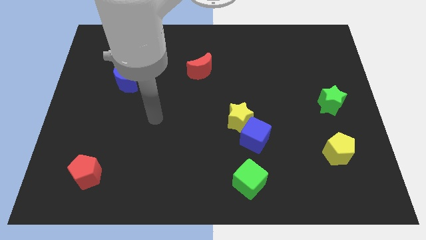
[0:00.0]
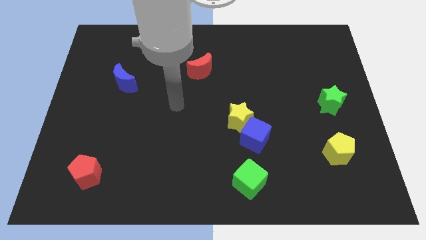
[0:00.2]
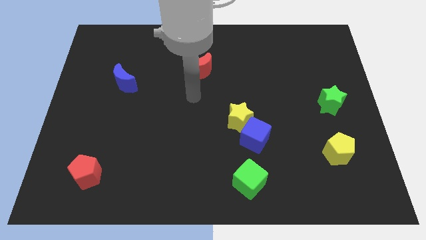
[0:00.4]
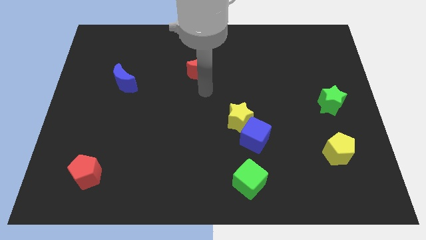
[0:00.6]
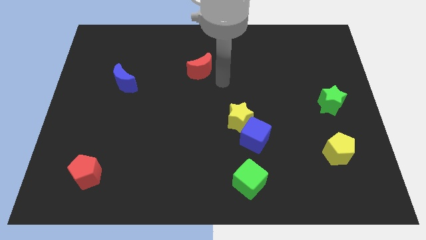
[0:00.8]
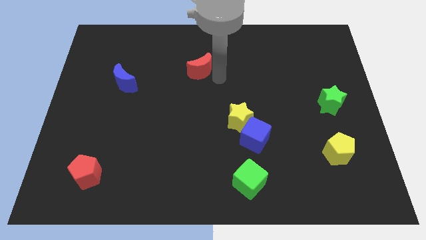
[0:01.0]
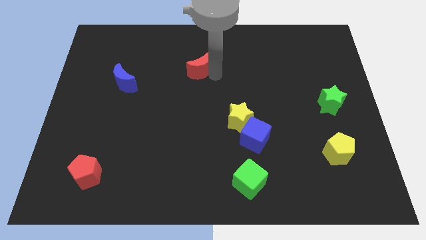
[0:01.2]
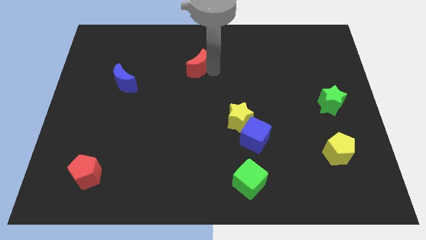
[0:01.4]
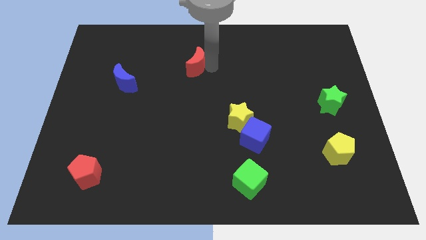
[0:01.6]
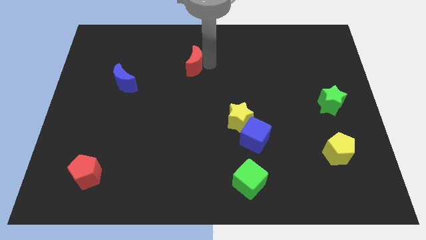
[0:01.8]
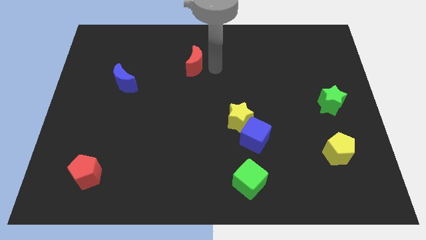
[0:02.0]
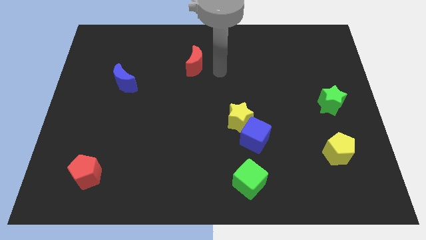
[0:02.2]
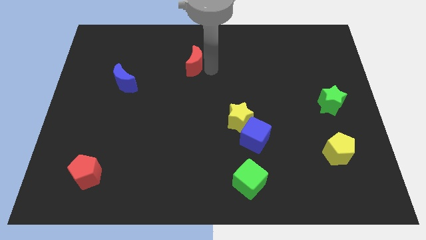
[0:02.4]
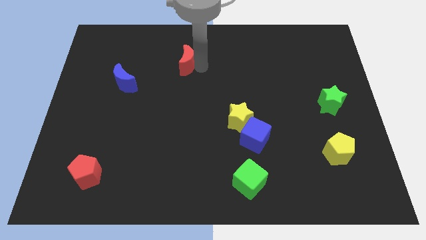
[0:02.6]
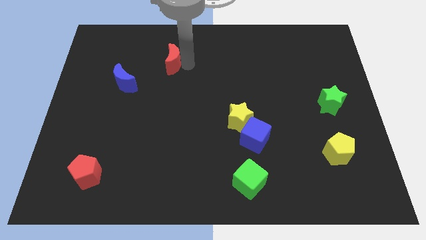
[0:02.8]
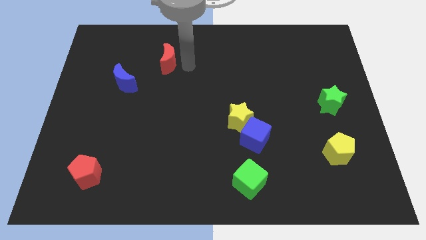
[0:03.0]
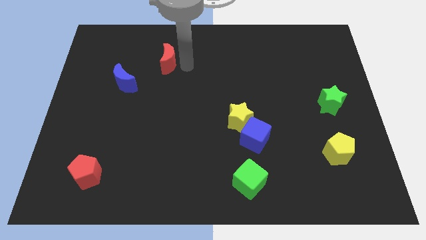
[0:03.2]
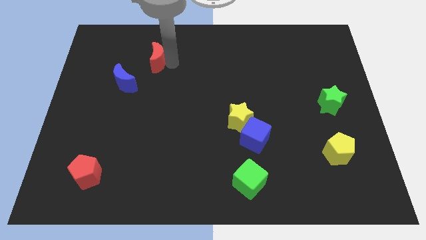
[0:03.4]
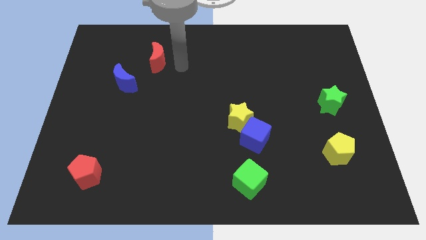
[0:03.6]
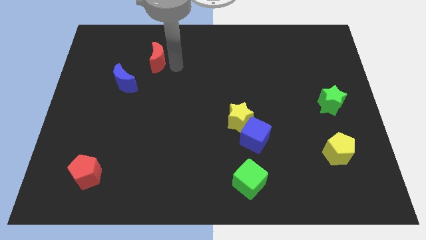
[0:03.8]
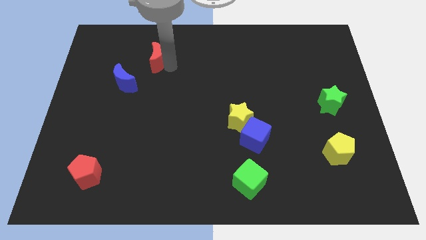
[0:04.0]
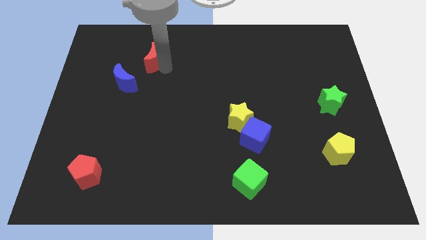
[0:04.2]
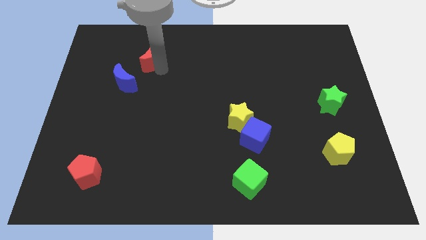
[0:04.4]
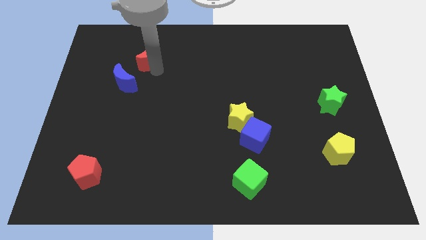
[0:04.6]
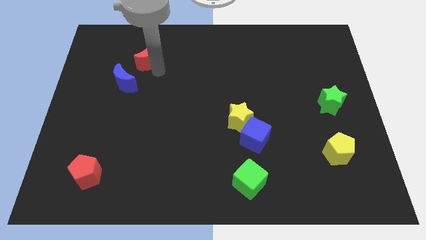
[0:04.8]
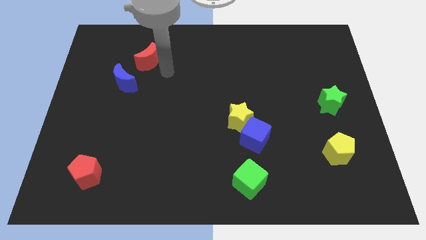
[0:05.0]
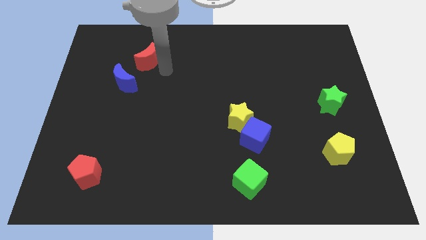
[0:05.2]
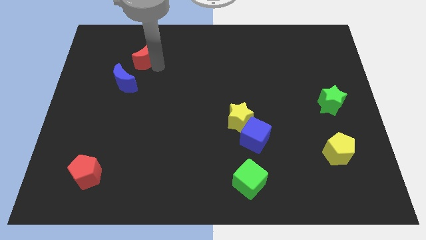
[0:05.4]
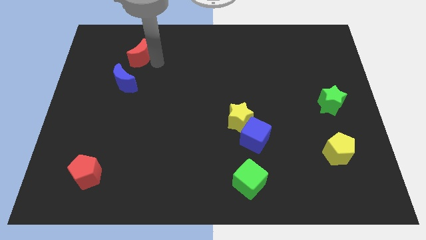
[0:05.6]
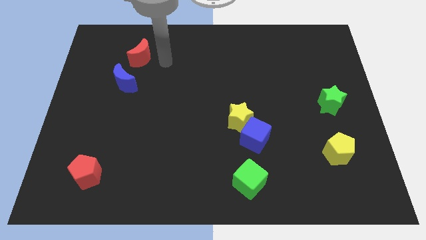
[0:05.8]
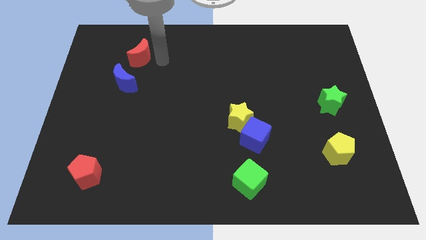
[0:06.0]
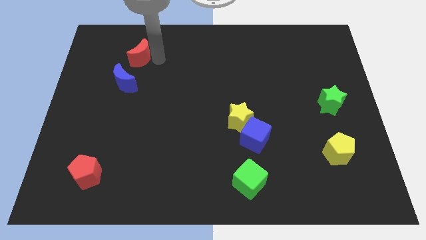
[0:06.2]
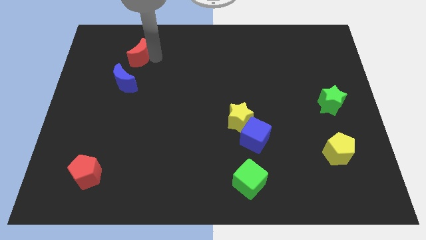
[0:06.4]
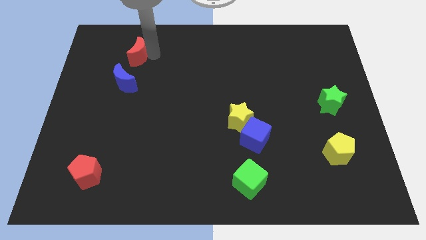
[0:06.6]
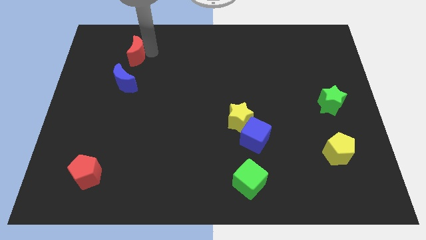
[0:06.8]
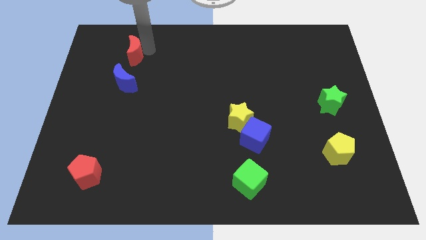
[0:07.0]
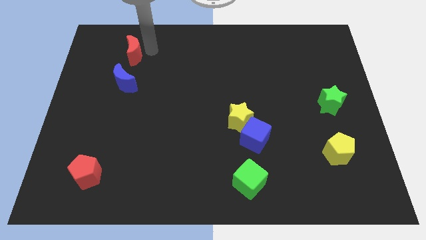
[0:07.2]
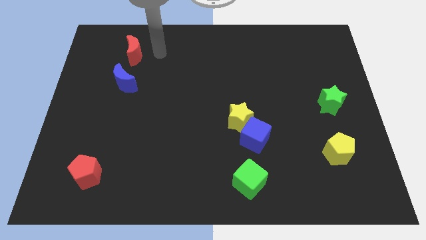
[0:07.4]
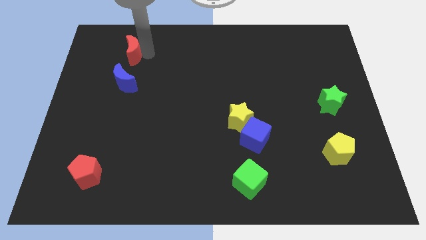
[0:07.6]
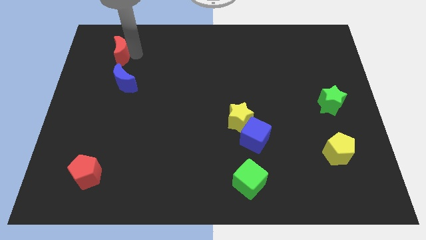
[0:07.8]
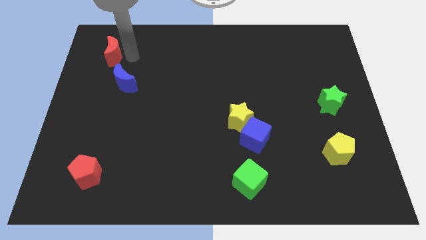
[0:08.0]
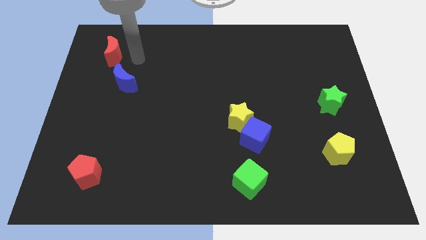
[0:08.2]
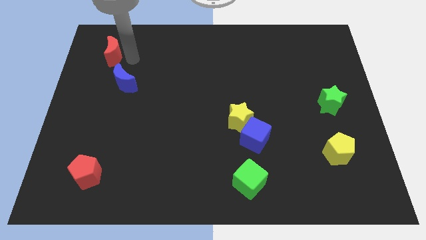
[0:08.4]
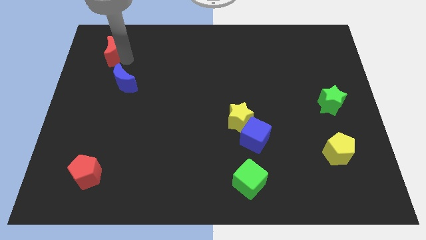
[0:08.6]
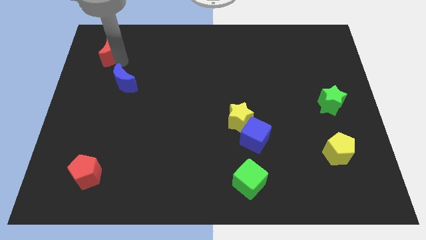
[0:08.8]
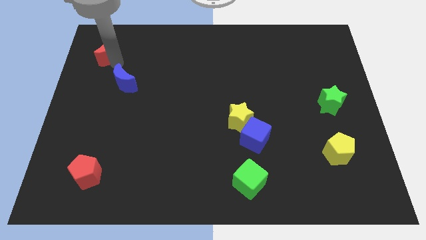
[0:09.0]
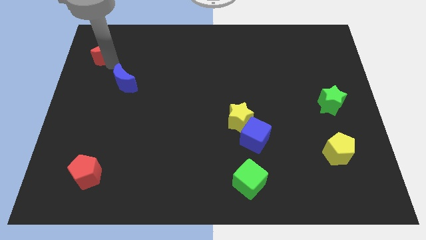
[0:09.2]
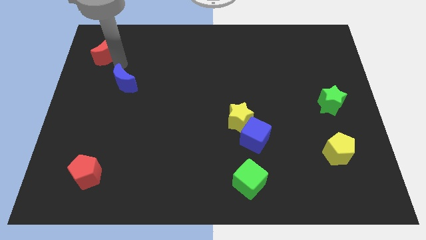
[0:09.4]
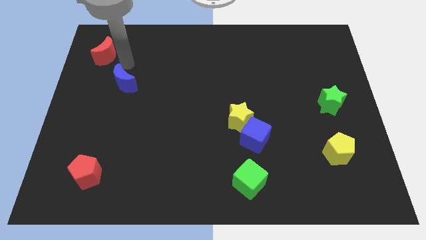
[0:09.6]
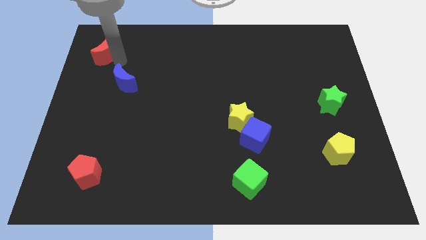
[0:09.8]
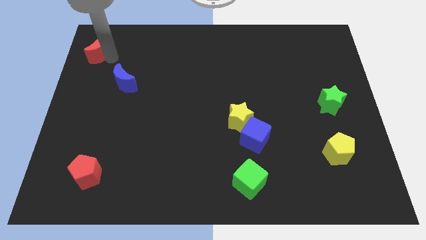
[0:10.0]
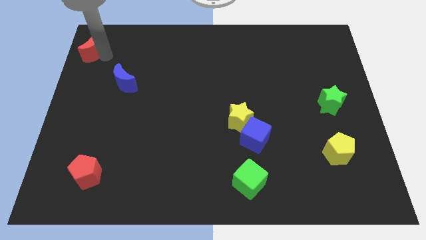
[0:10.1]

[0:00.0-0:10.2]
put the red moon to the top left
